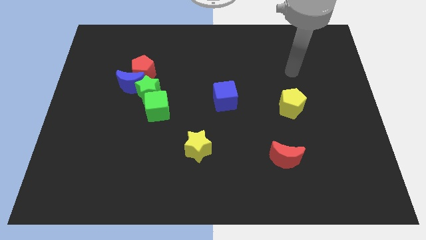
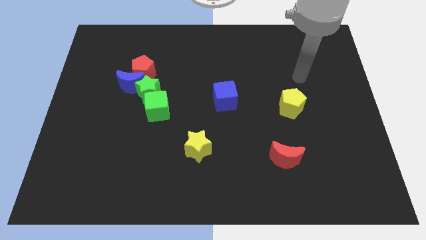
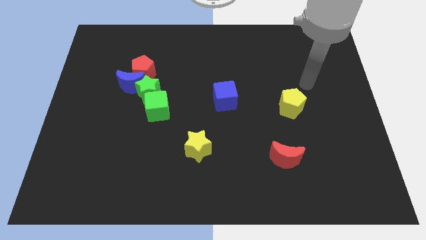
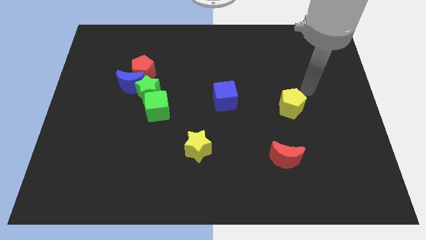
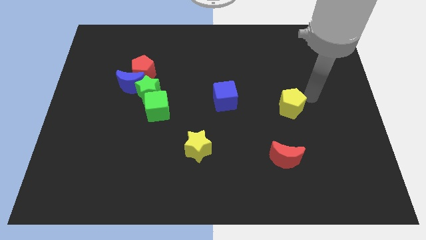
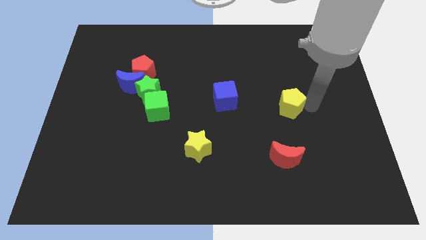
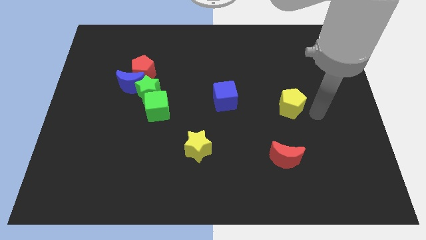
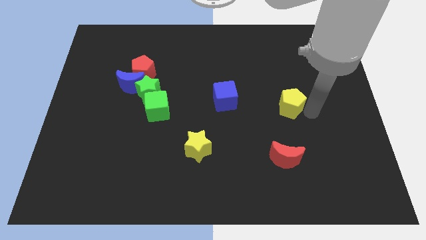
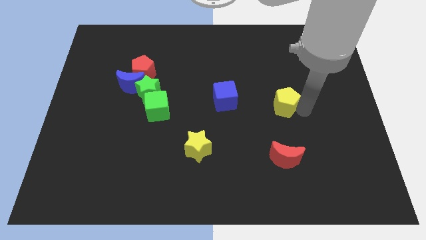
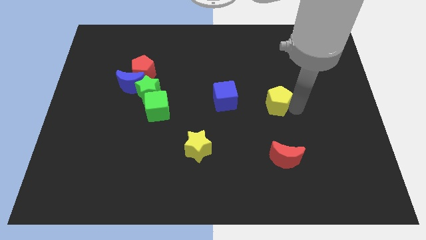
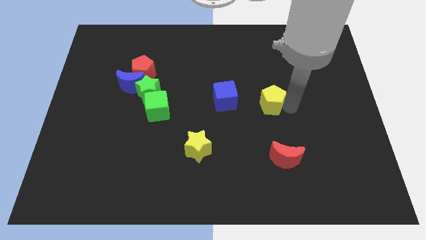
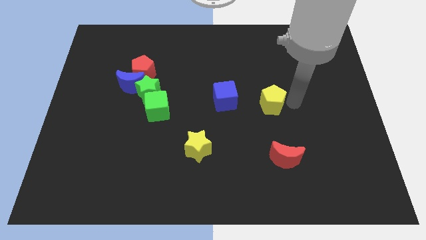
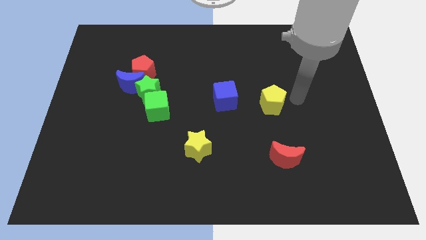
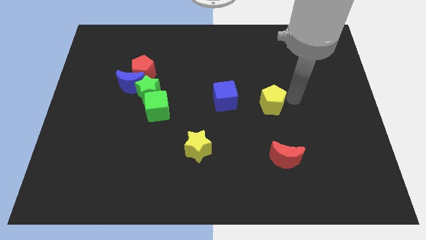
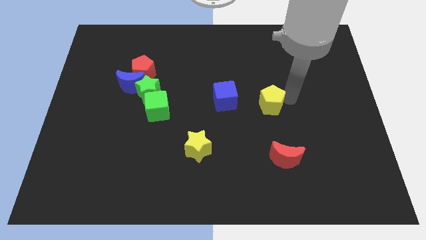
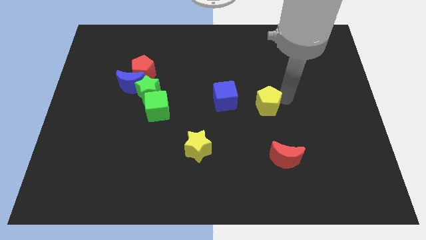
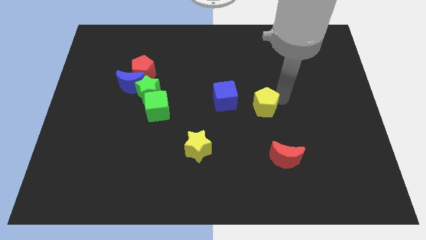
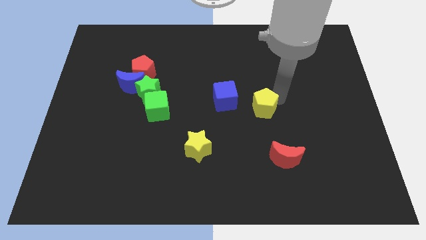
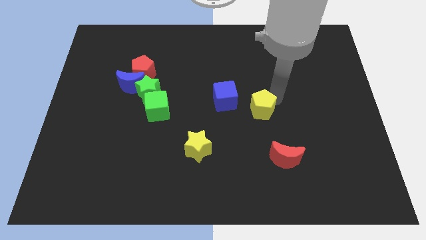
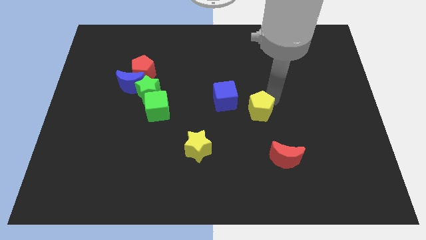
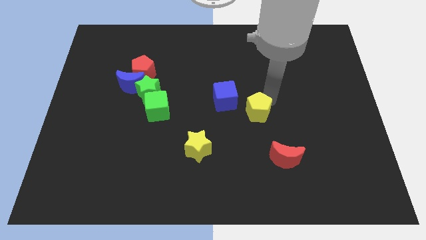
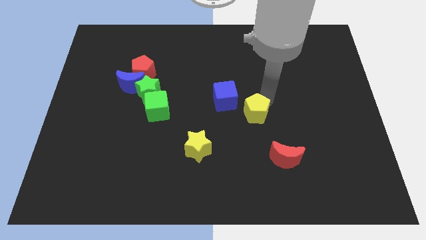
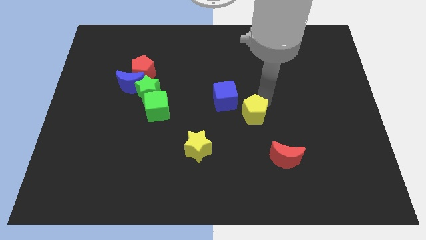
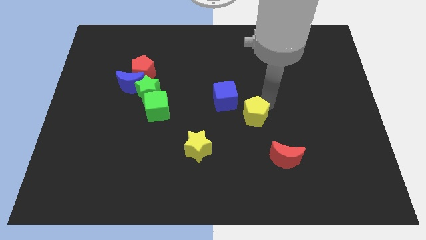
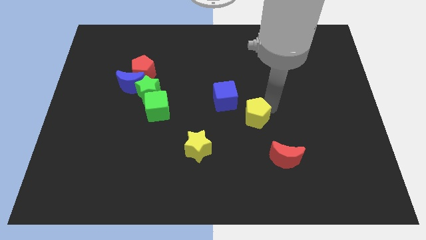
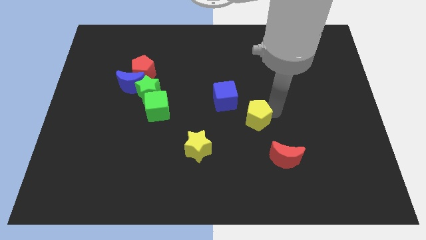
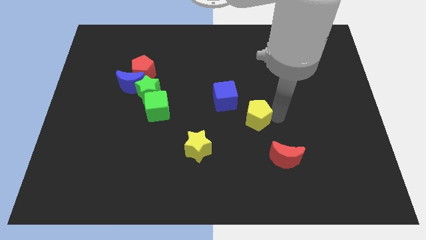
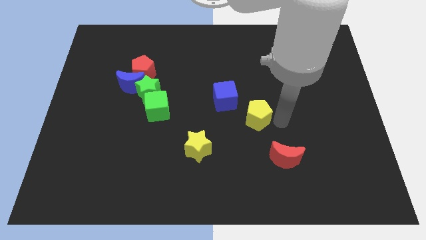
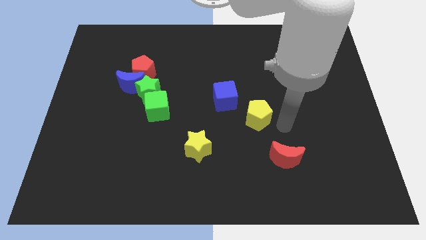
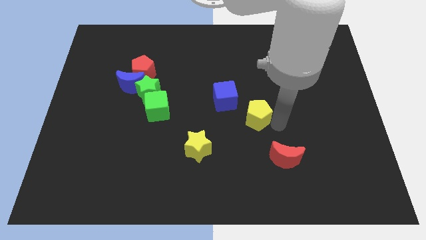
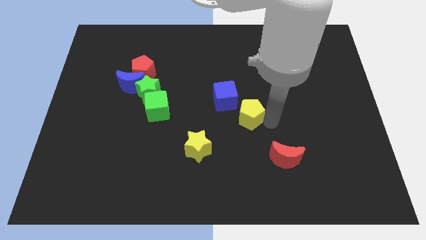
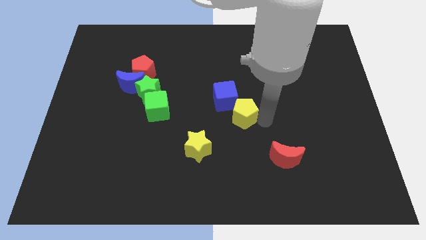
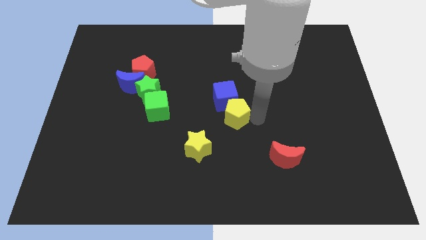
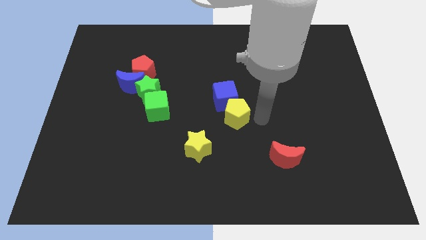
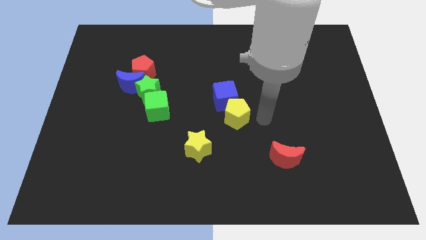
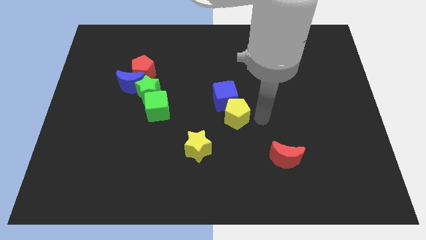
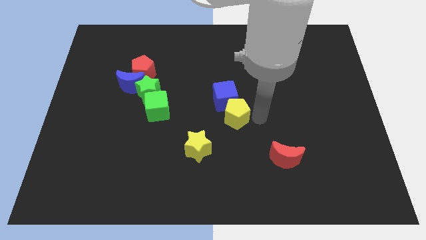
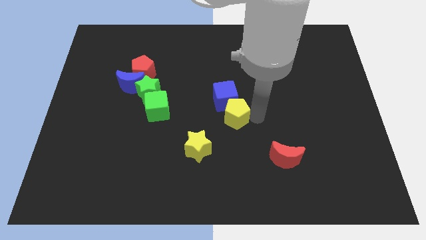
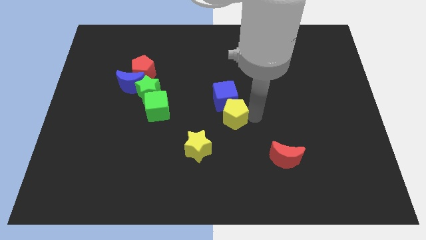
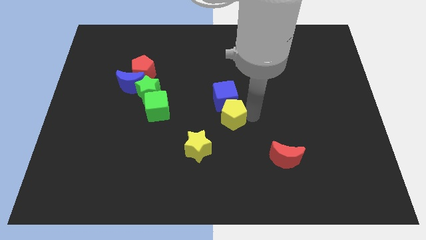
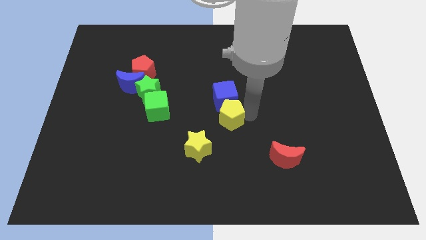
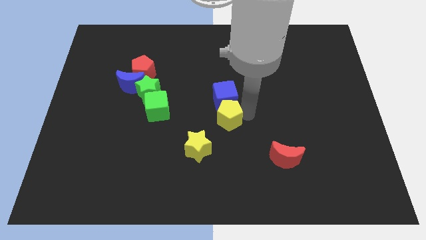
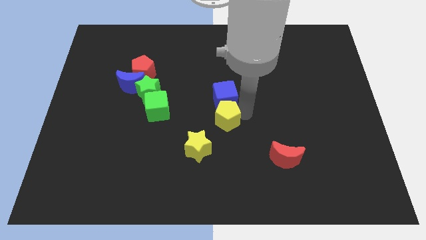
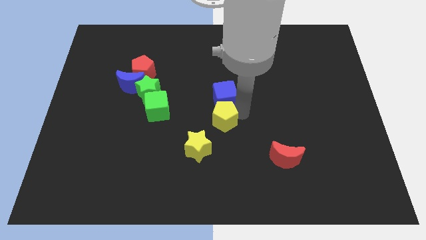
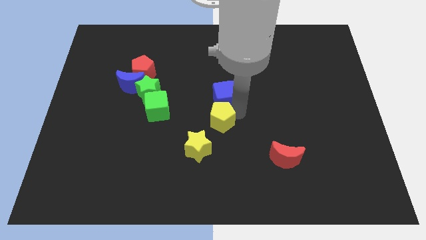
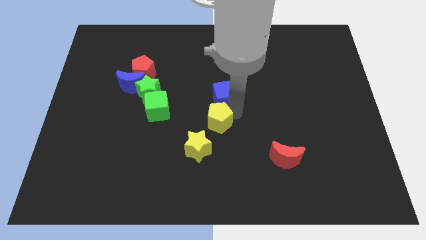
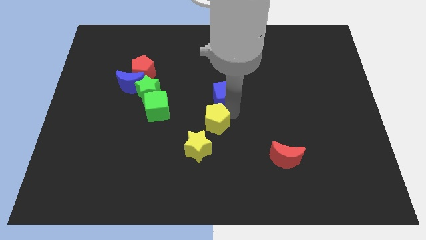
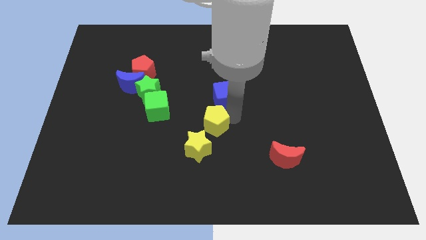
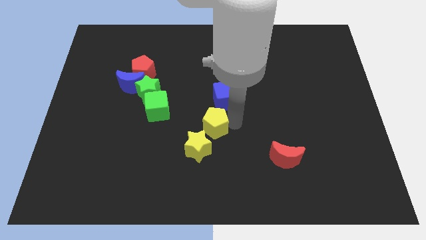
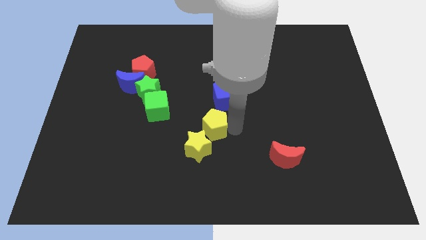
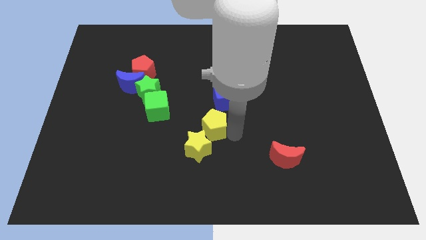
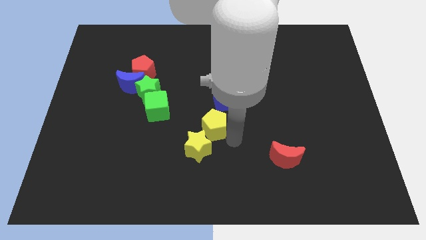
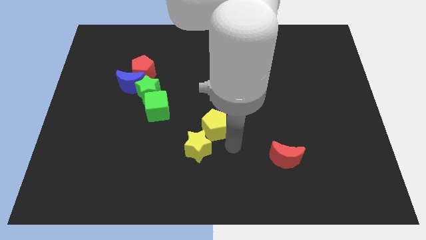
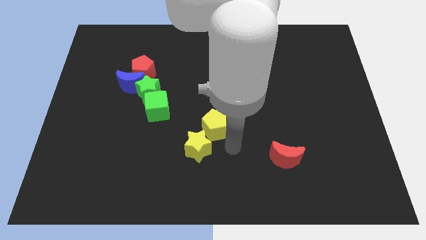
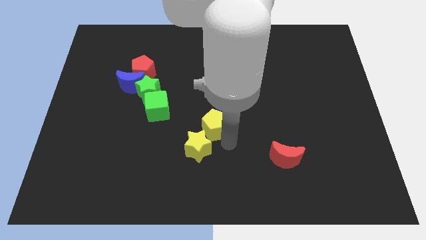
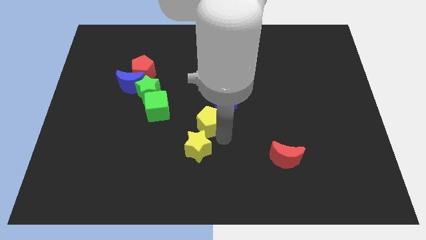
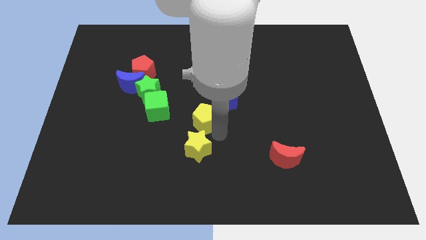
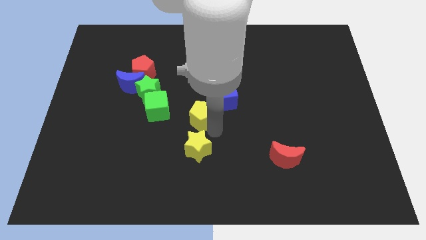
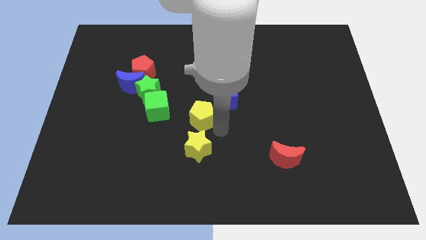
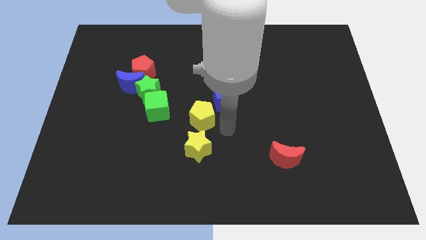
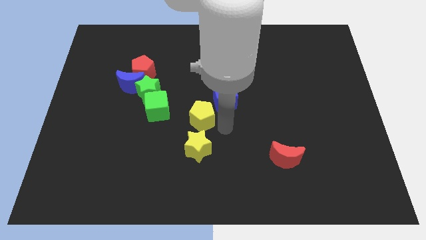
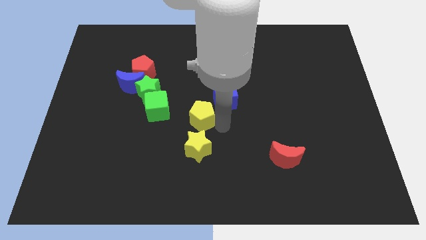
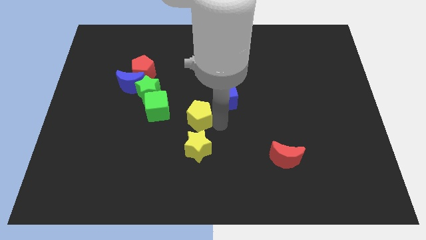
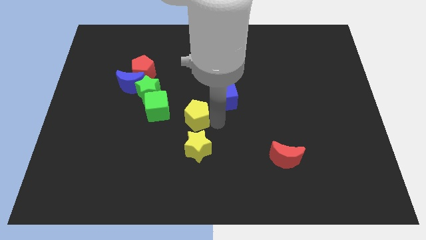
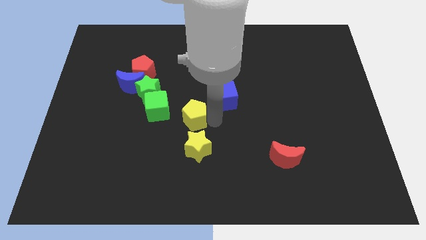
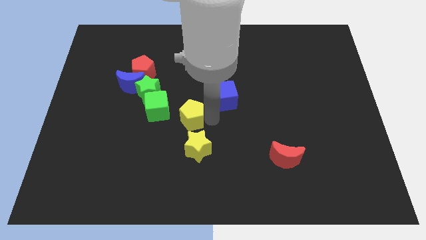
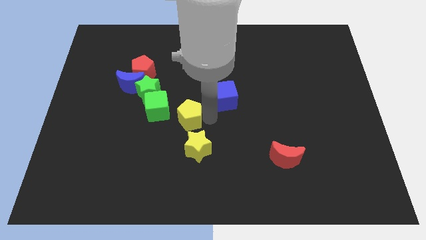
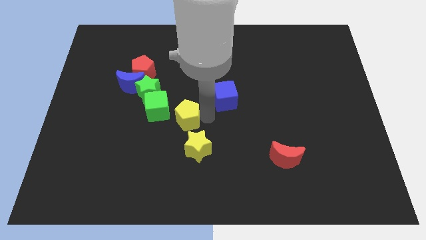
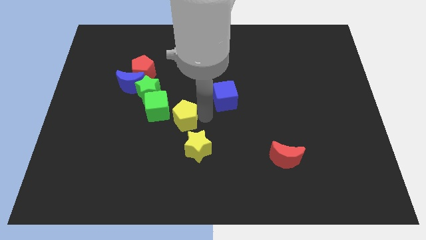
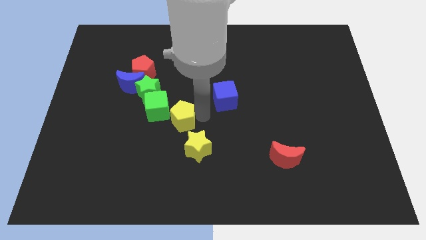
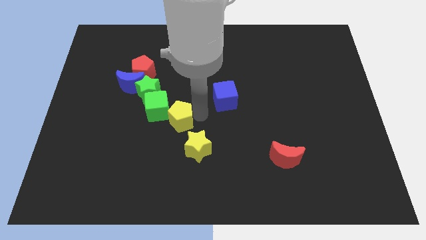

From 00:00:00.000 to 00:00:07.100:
slide the yellow pentagon to the green cube

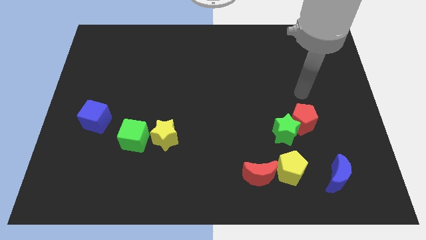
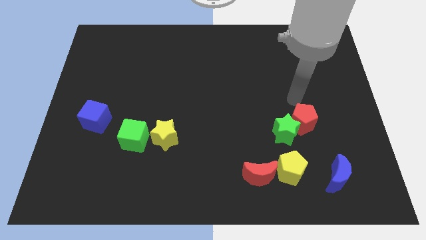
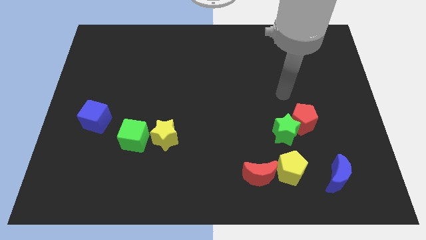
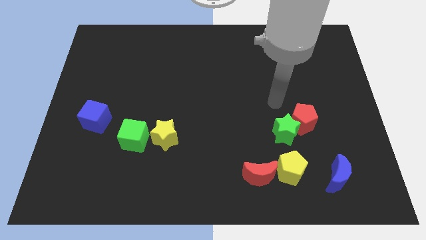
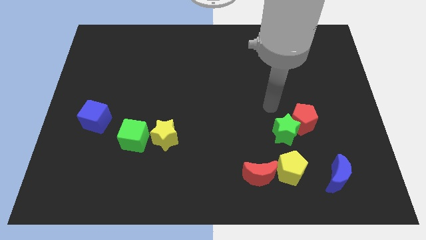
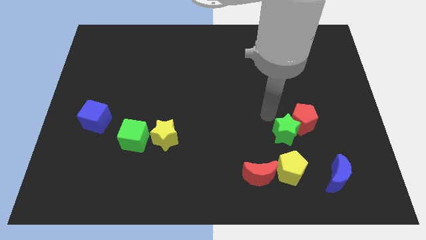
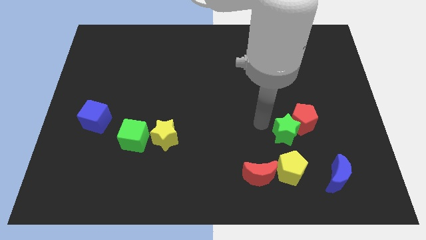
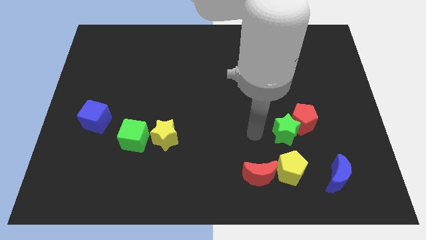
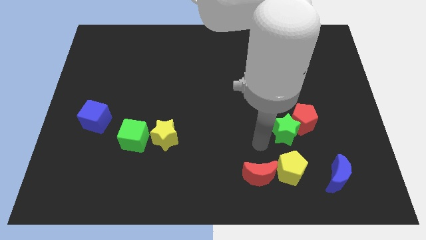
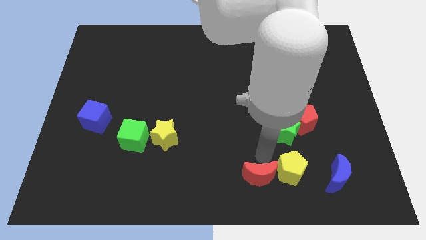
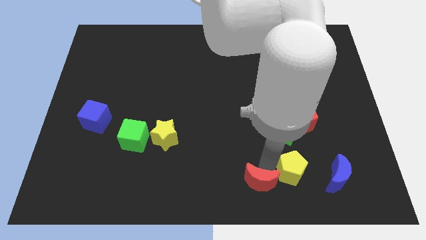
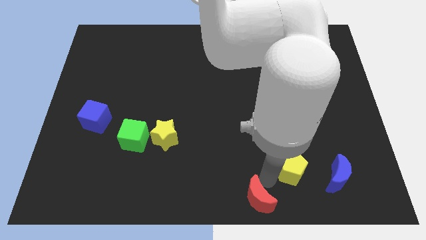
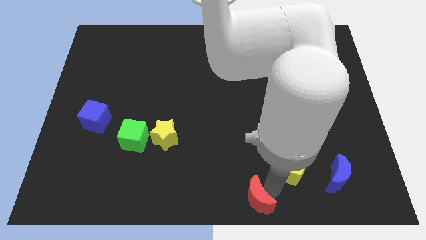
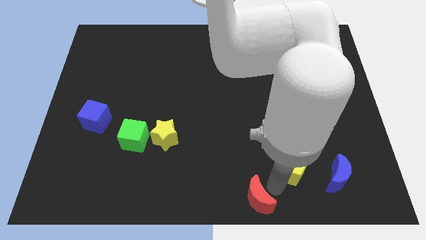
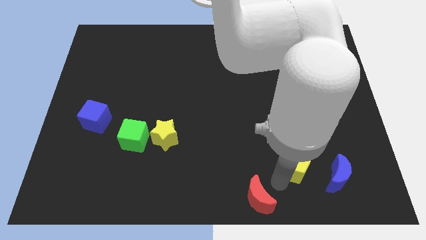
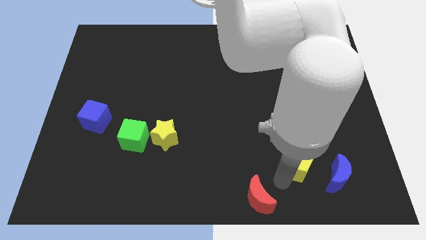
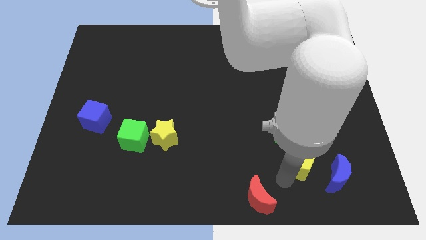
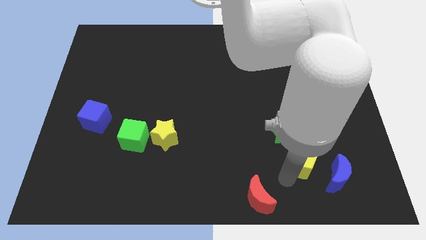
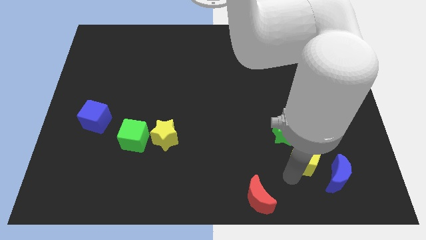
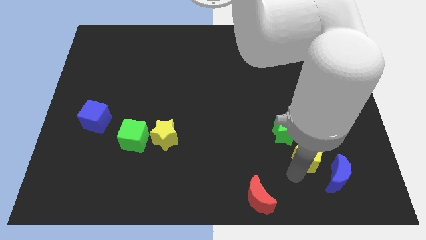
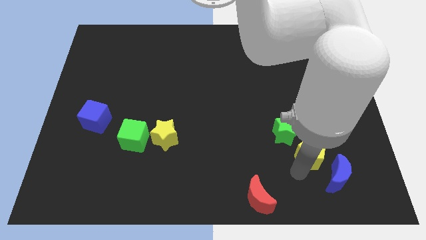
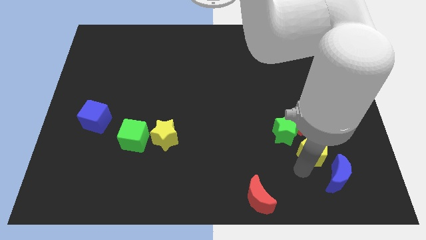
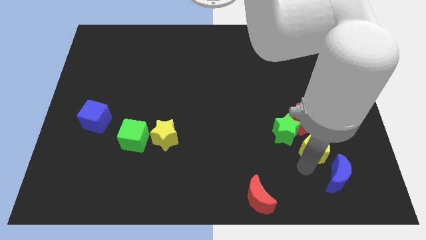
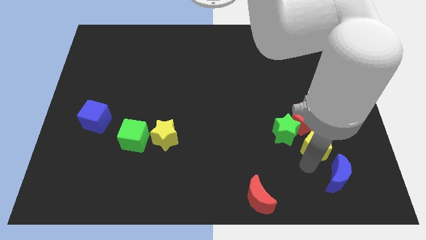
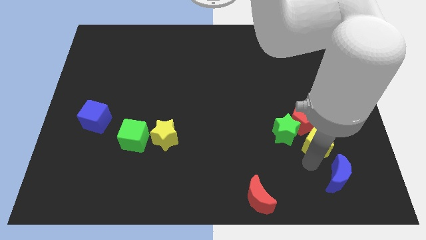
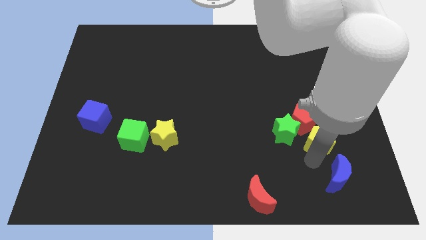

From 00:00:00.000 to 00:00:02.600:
slide the yellow pentagon to the red pentagon
